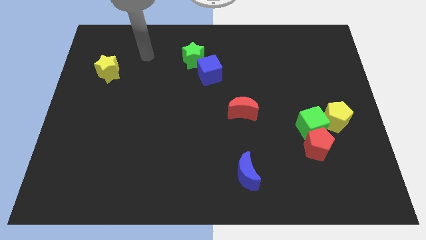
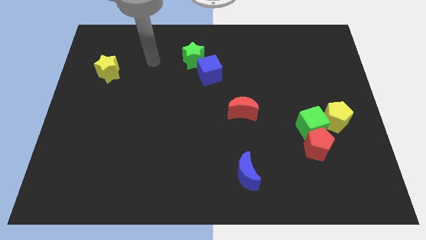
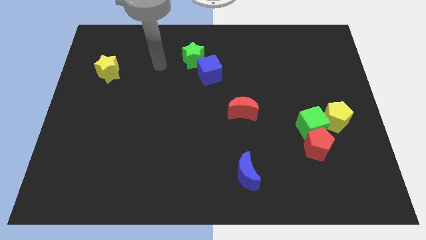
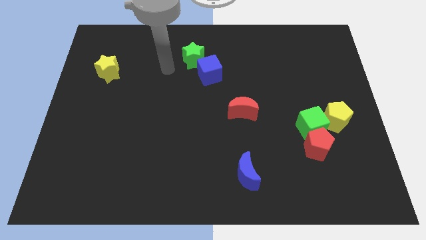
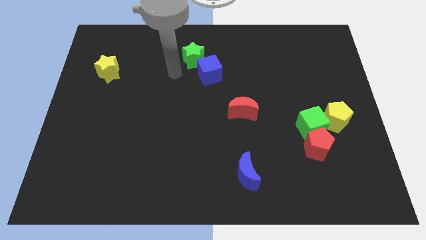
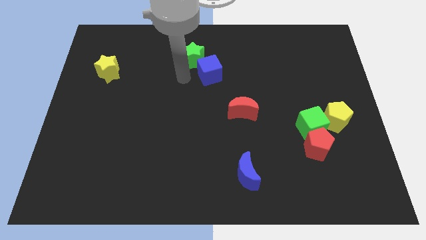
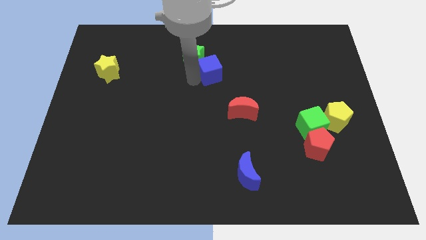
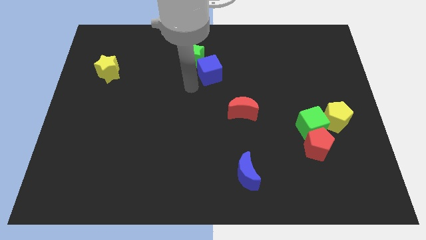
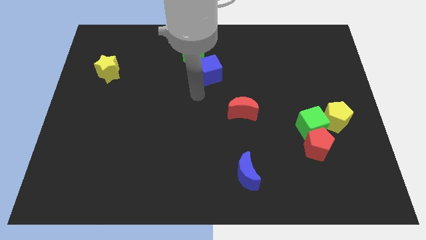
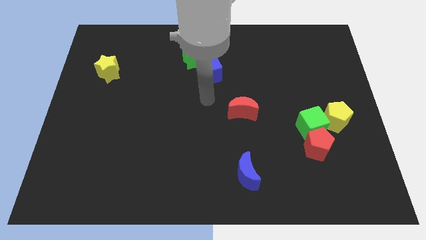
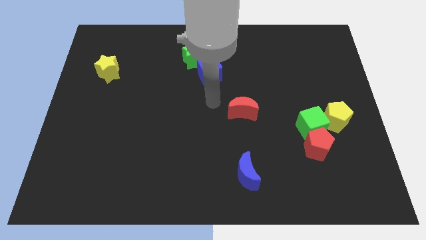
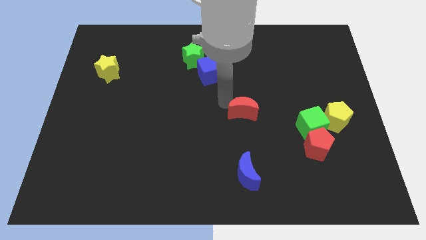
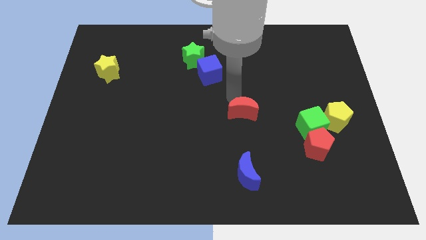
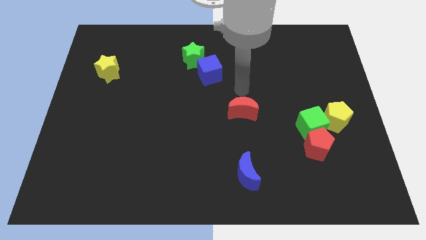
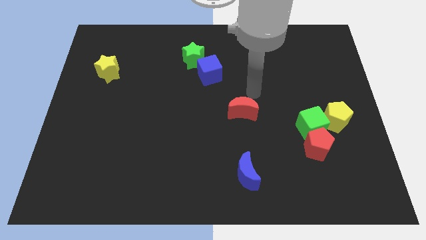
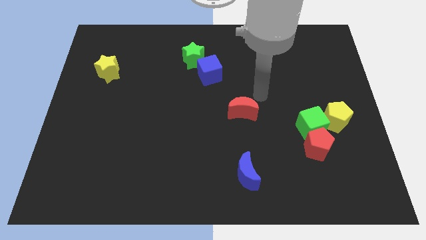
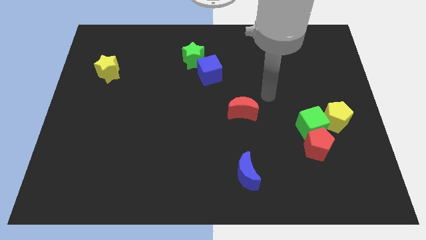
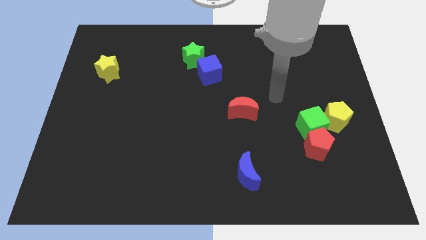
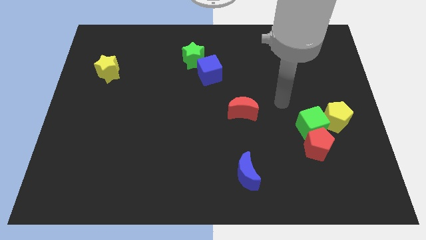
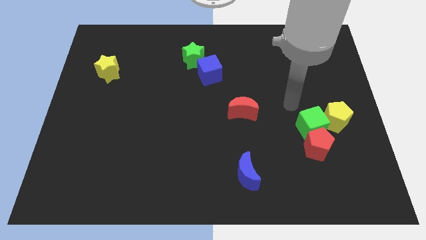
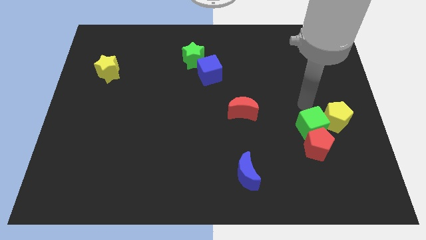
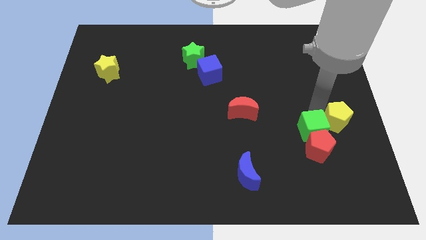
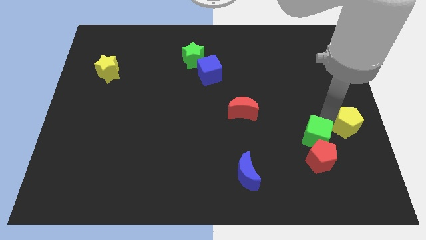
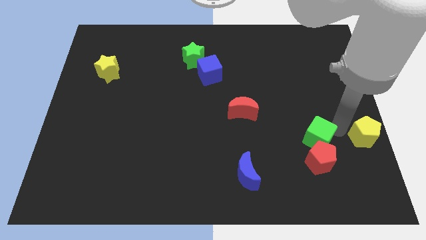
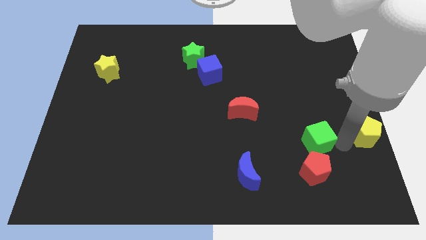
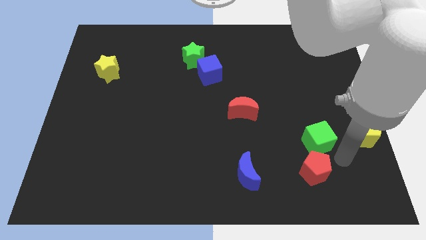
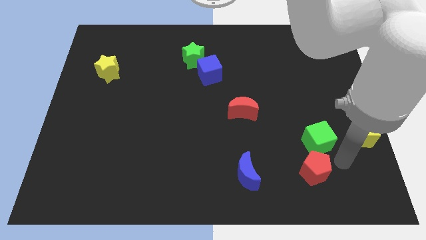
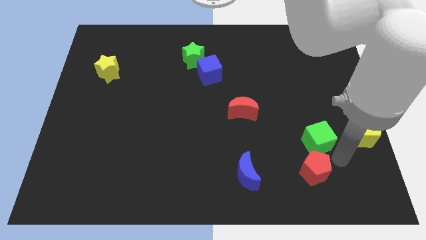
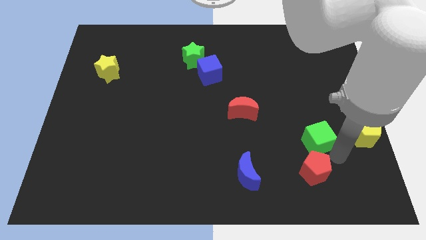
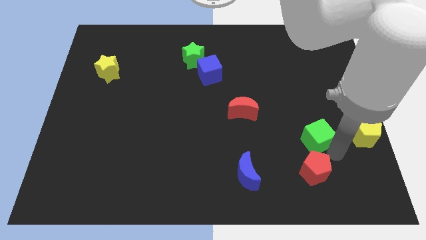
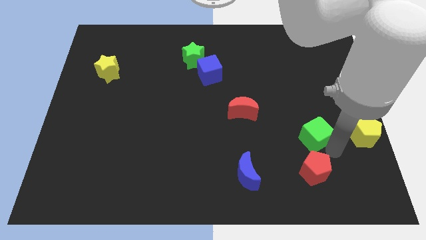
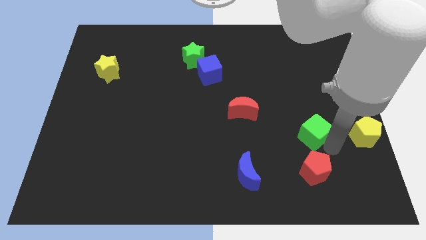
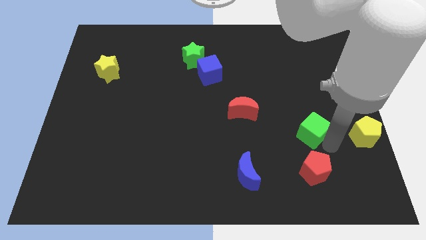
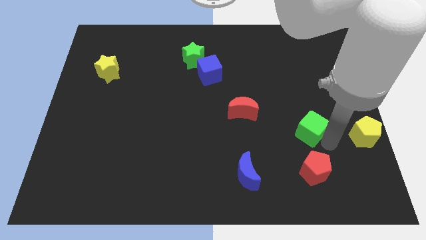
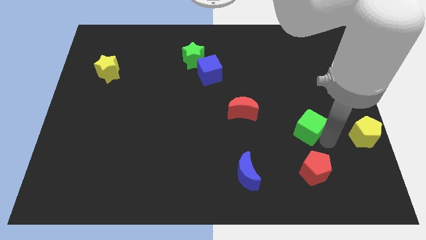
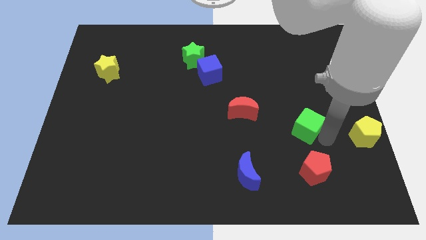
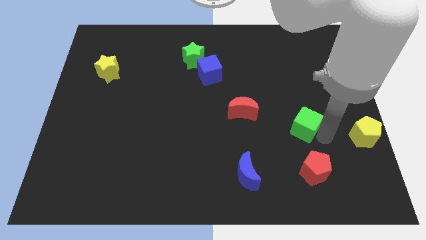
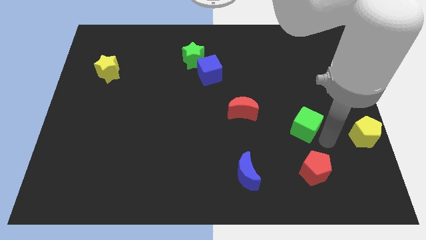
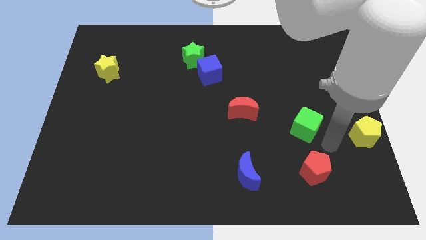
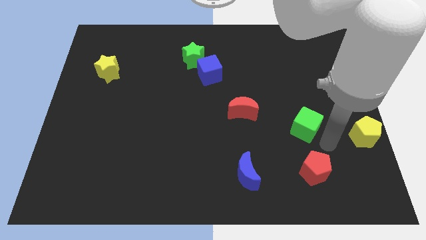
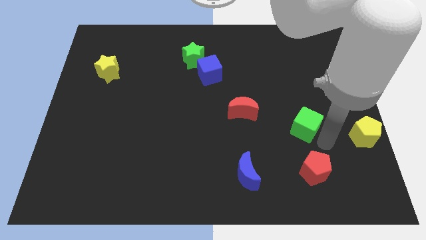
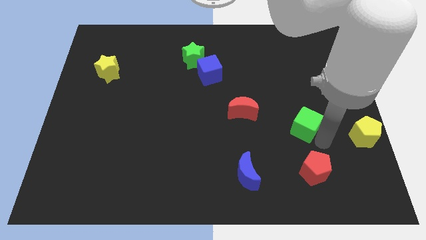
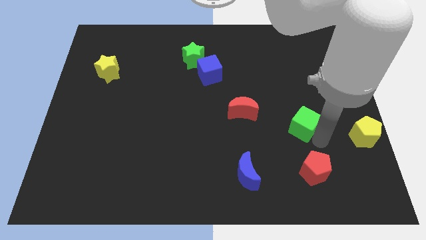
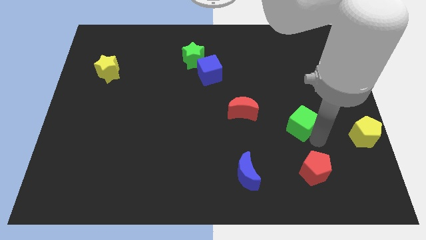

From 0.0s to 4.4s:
separate the green cube from the red pentagon and yellow pentagon

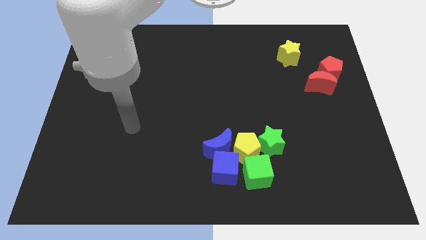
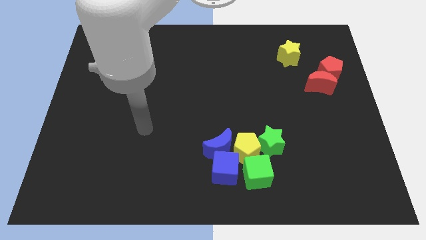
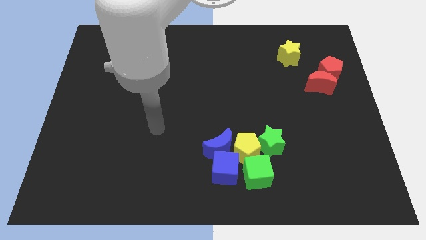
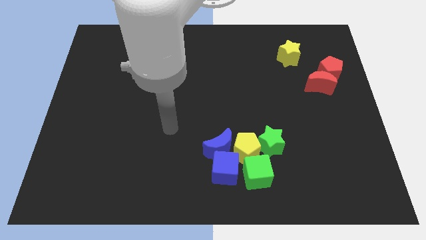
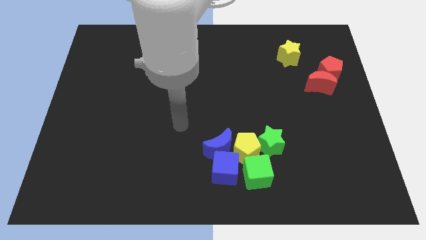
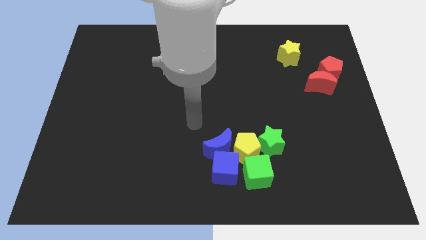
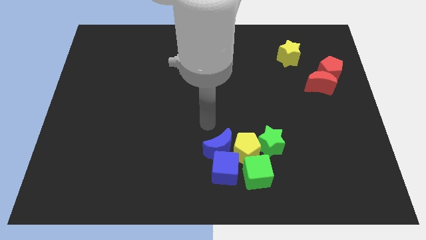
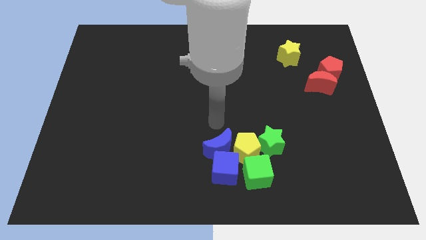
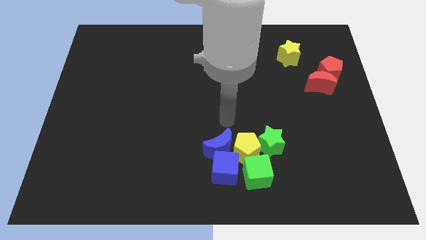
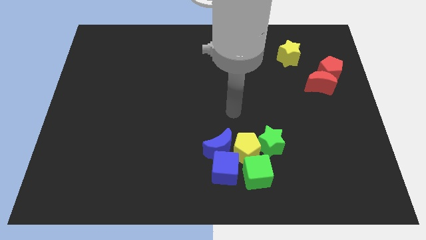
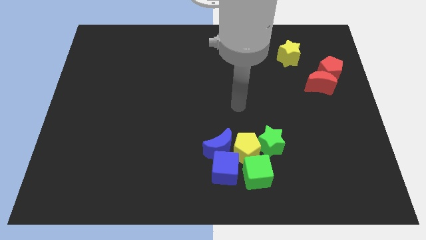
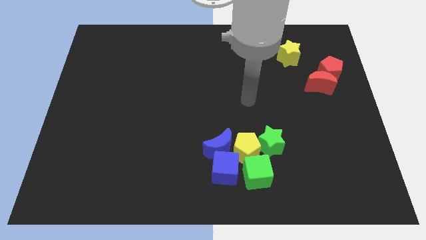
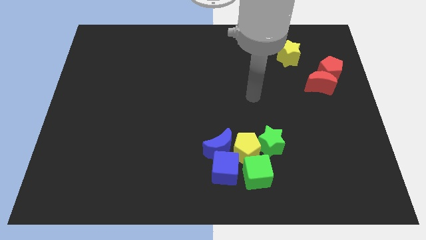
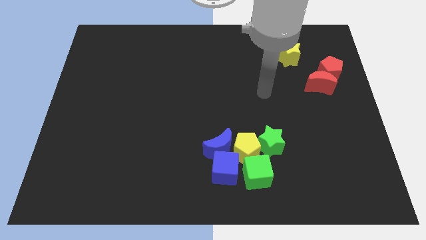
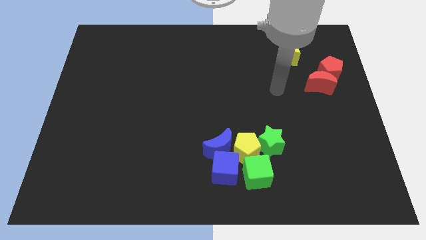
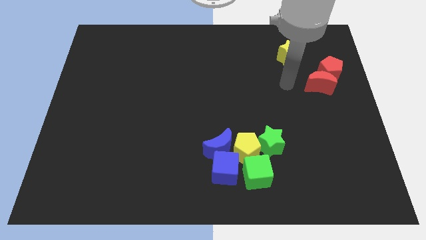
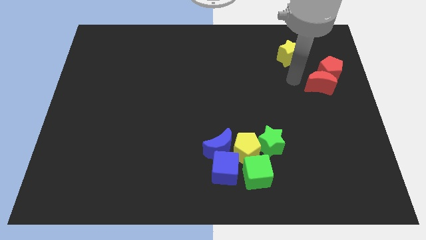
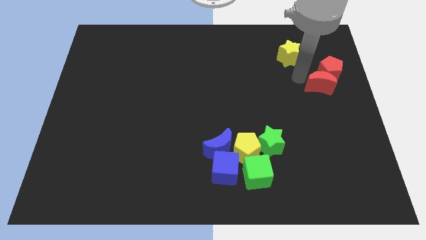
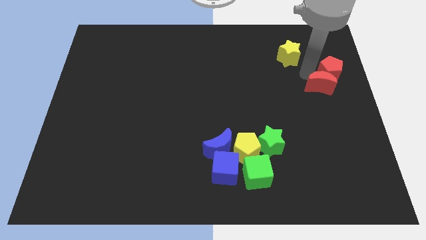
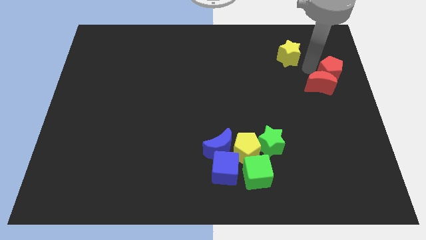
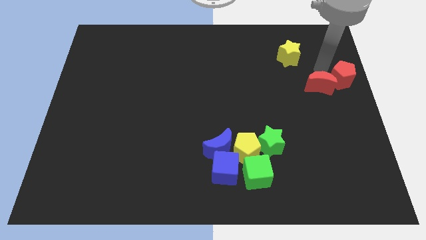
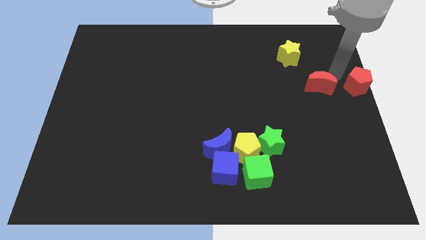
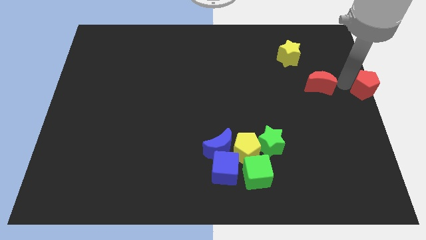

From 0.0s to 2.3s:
pull the red moon apart from the red pentagon

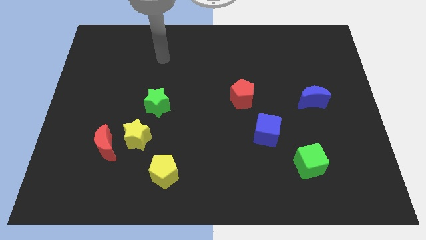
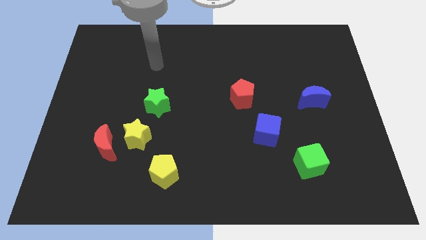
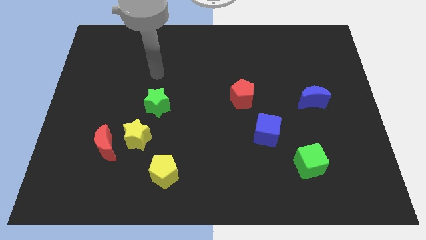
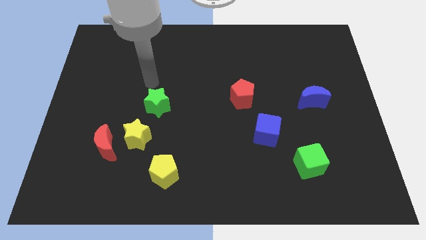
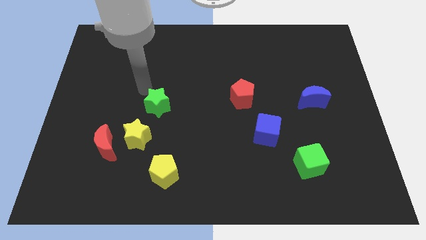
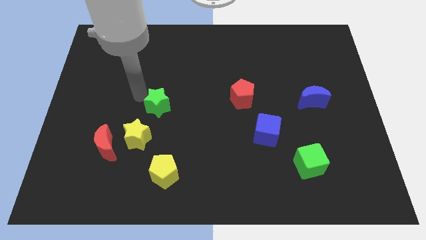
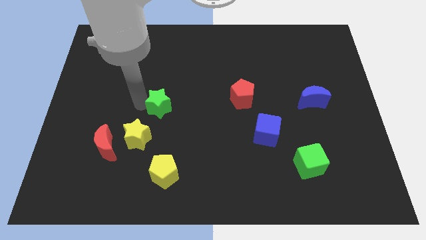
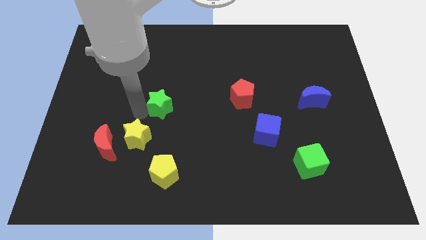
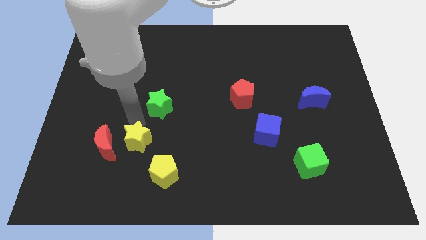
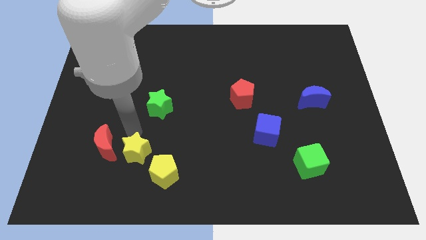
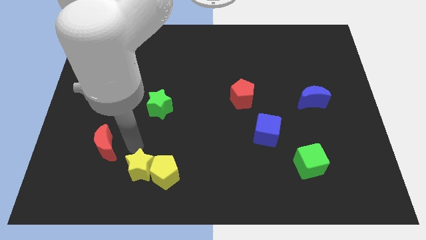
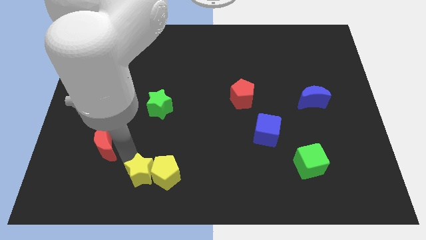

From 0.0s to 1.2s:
move the red moon away from the yellow star

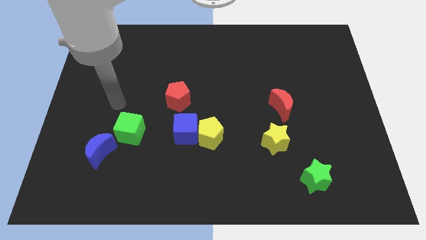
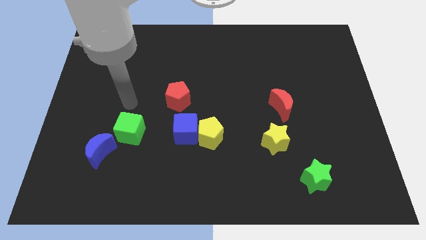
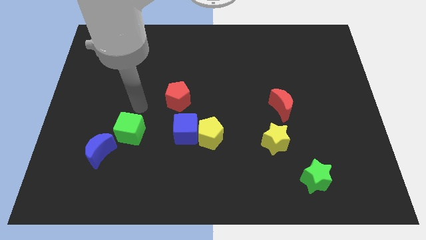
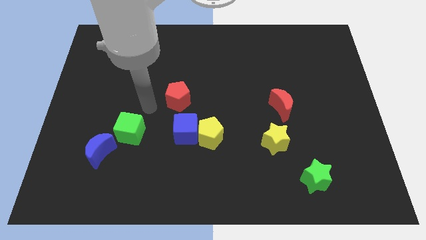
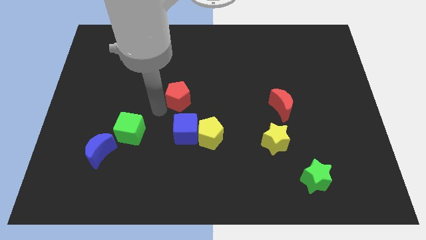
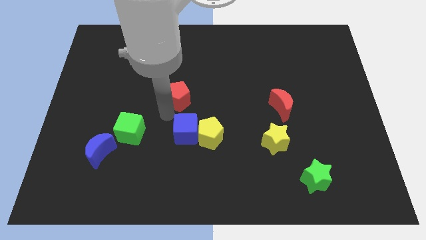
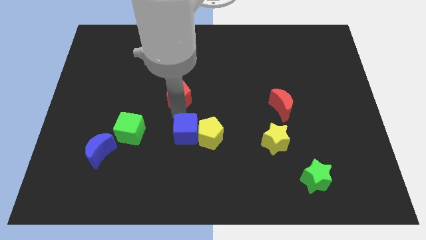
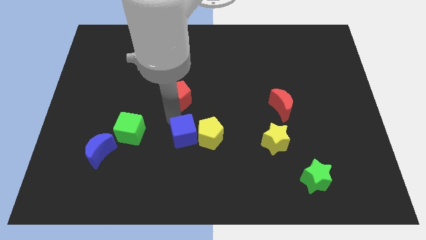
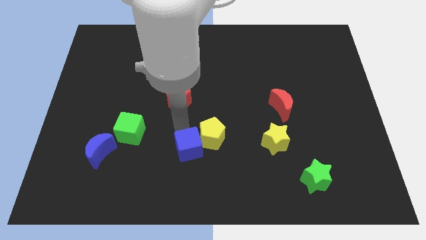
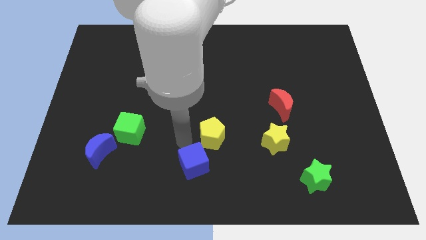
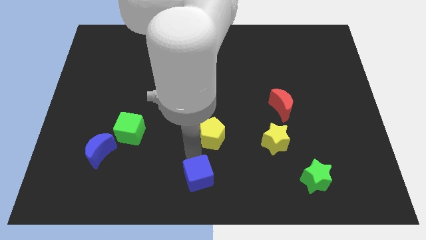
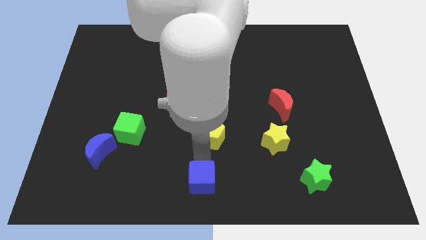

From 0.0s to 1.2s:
pull the yellow pentagon apart from the blue cube

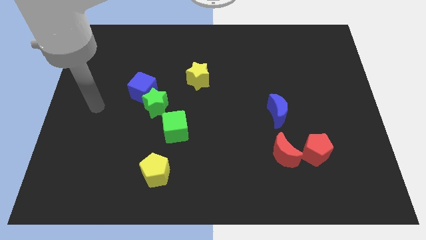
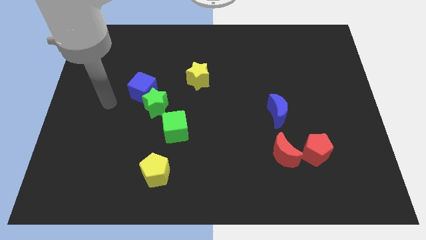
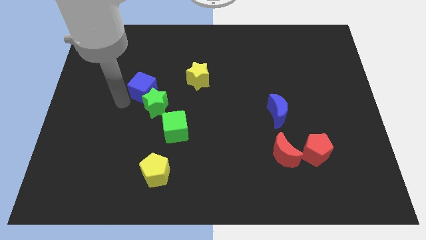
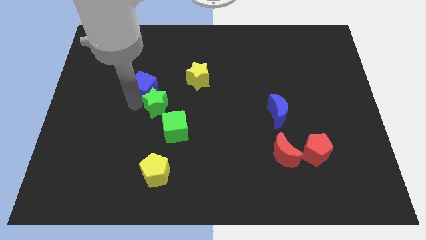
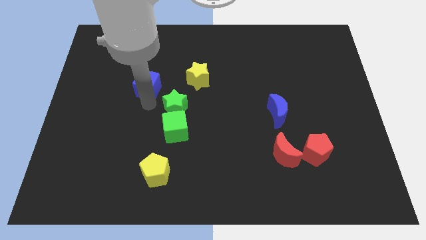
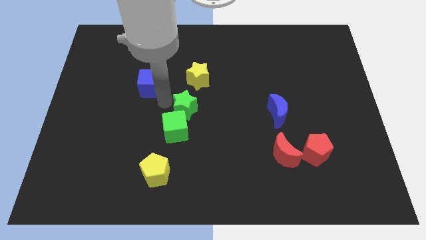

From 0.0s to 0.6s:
move the blue cube away from the green star
